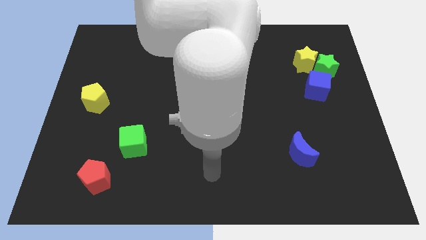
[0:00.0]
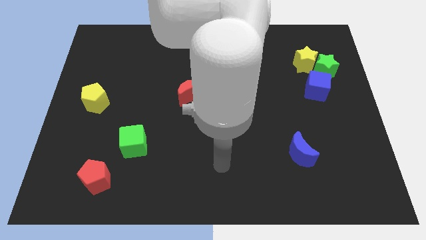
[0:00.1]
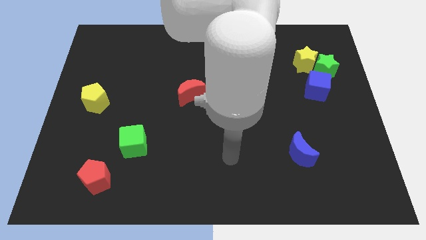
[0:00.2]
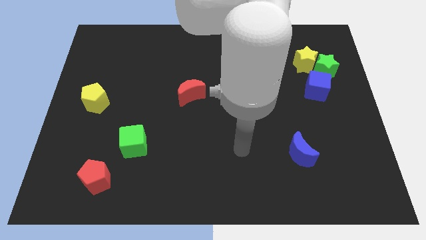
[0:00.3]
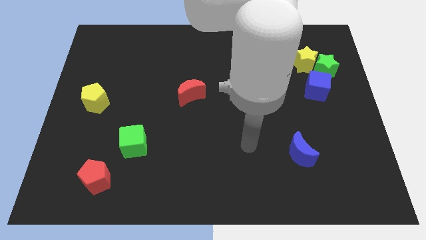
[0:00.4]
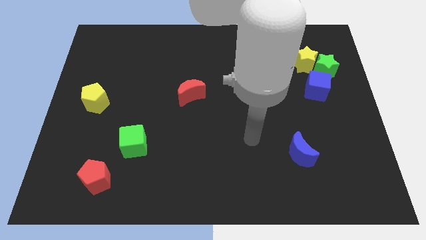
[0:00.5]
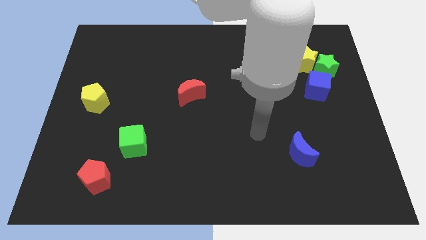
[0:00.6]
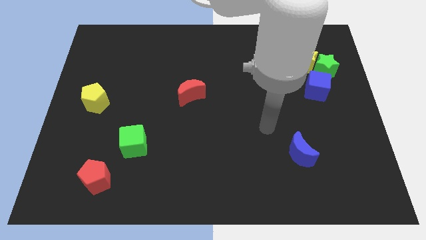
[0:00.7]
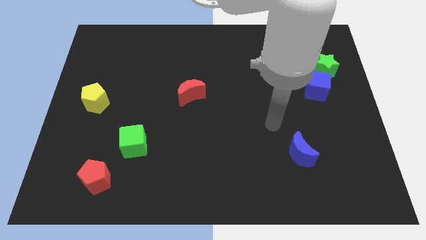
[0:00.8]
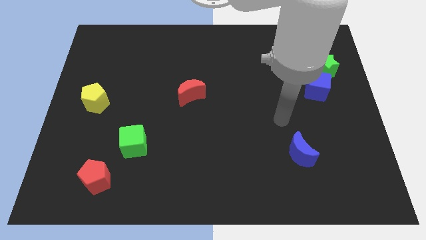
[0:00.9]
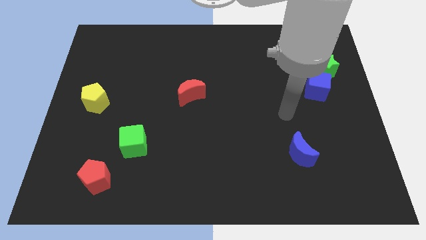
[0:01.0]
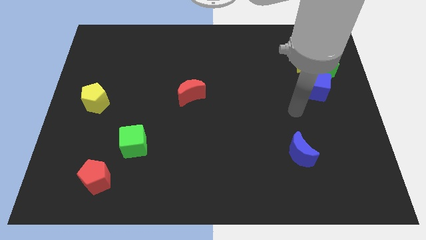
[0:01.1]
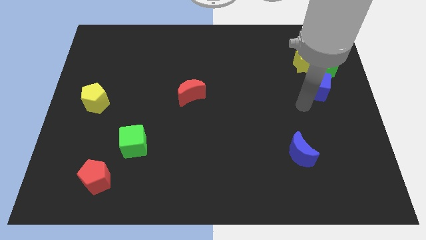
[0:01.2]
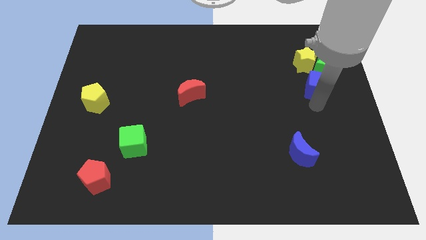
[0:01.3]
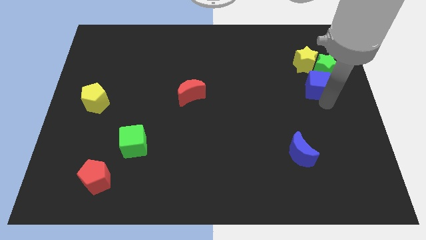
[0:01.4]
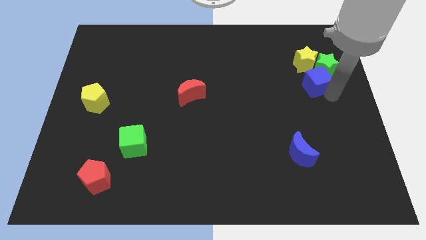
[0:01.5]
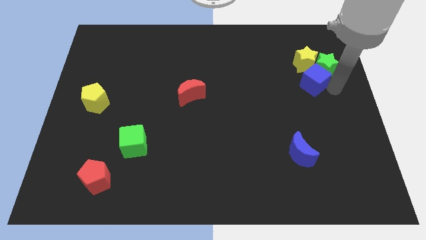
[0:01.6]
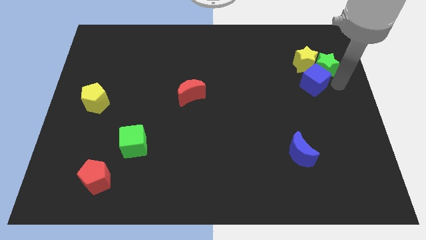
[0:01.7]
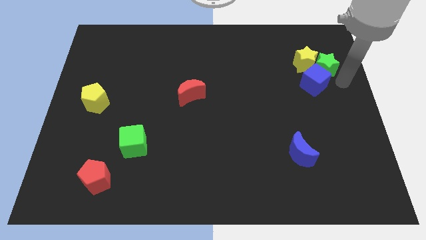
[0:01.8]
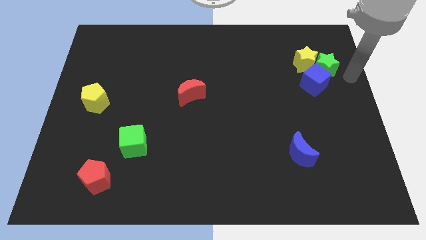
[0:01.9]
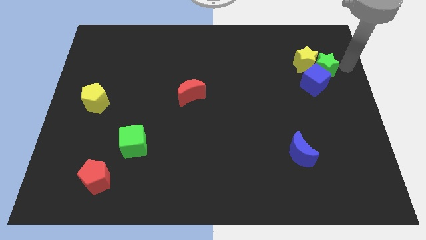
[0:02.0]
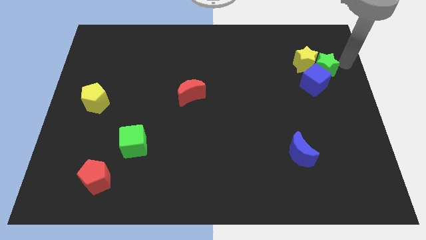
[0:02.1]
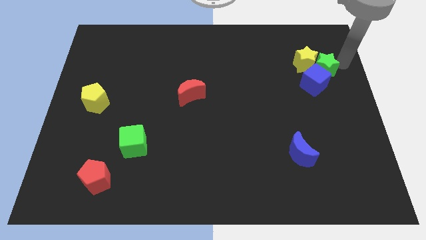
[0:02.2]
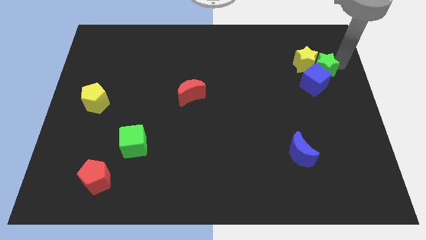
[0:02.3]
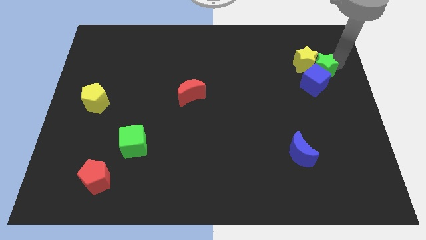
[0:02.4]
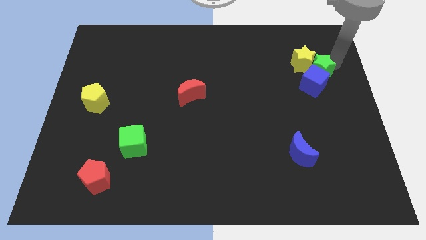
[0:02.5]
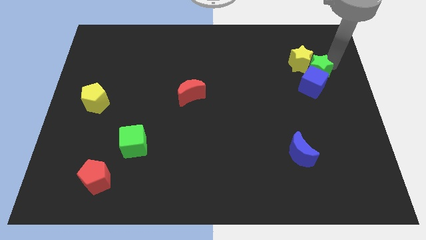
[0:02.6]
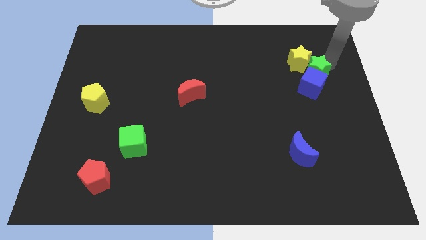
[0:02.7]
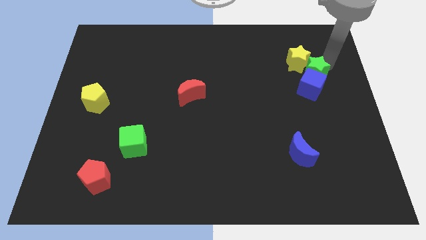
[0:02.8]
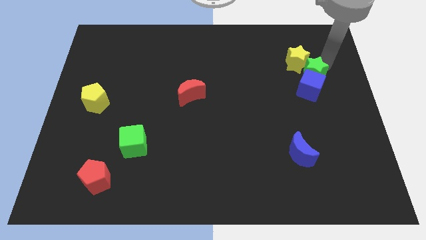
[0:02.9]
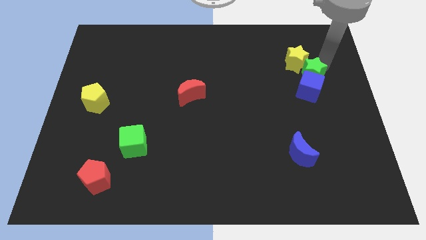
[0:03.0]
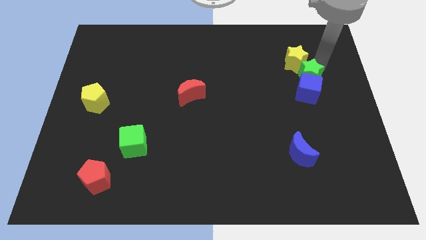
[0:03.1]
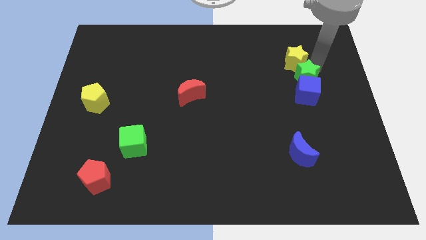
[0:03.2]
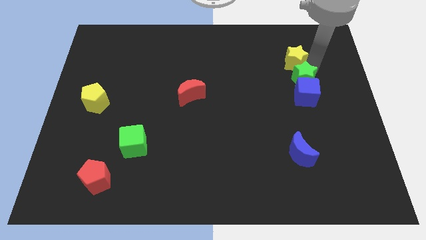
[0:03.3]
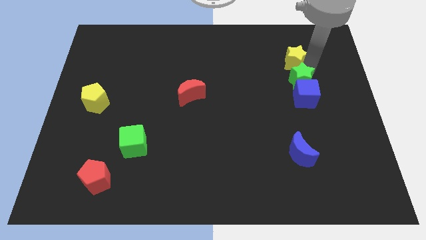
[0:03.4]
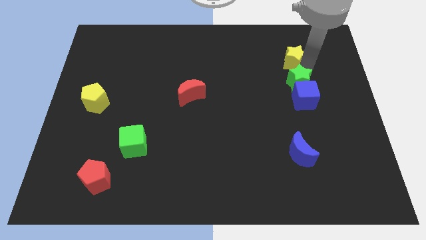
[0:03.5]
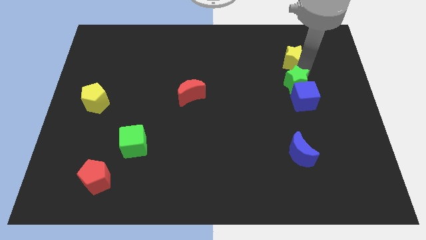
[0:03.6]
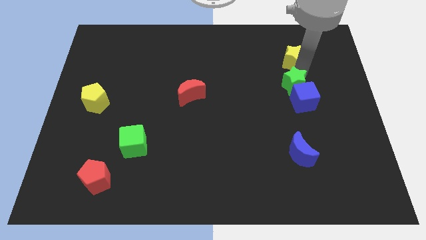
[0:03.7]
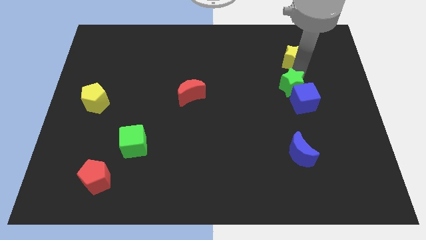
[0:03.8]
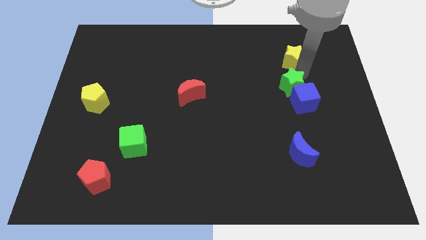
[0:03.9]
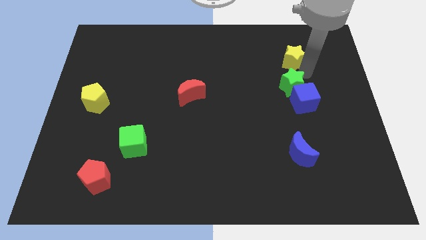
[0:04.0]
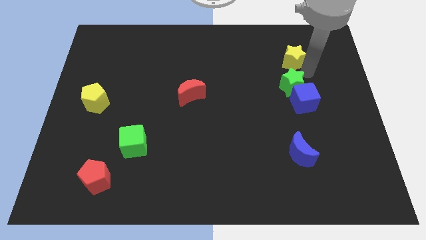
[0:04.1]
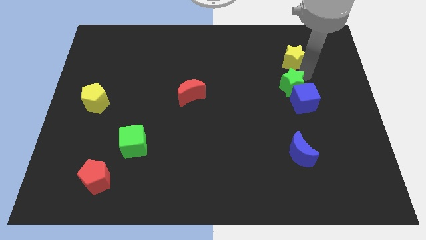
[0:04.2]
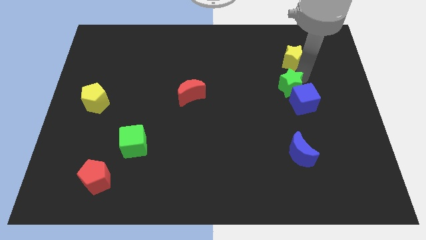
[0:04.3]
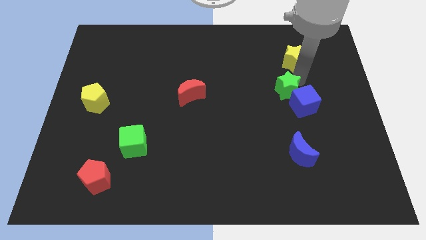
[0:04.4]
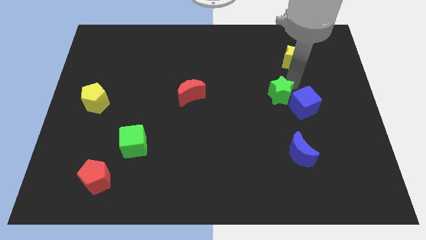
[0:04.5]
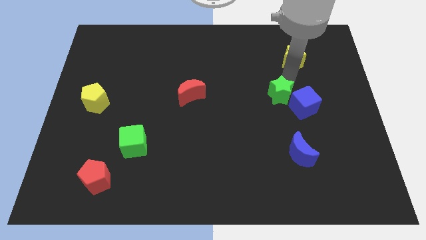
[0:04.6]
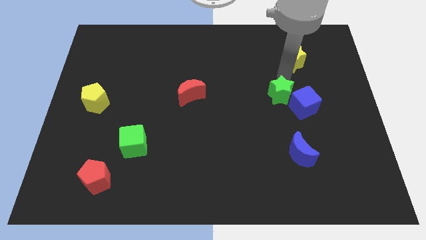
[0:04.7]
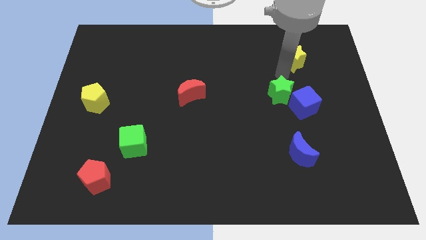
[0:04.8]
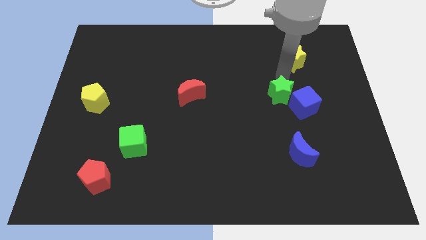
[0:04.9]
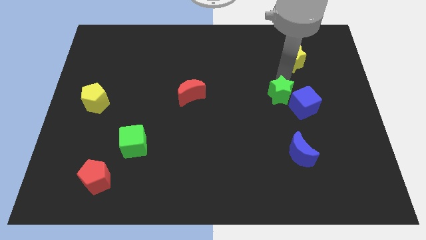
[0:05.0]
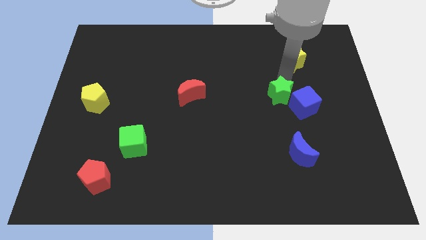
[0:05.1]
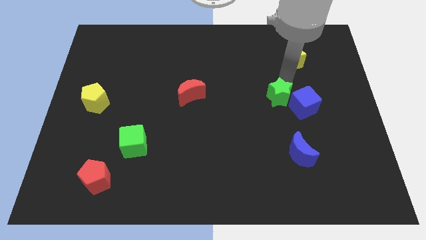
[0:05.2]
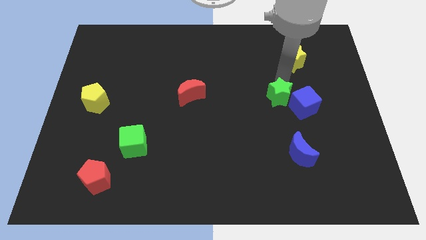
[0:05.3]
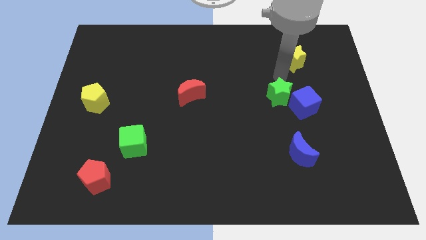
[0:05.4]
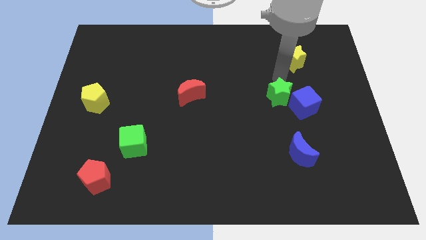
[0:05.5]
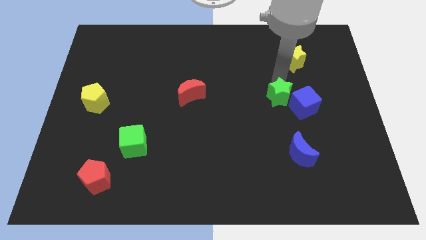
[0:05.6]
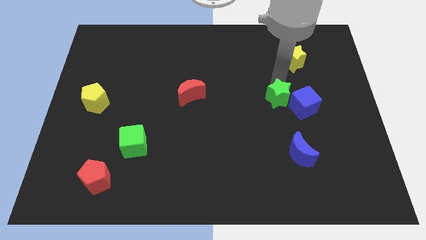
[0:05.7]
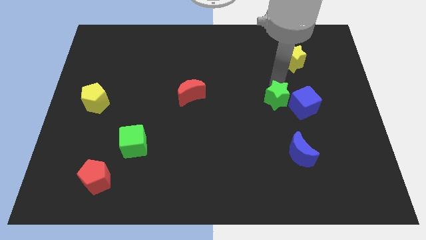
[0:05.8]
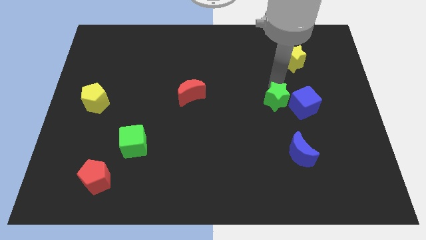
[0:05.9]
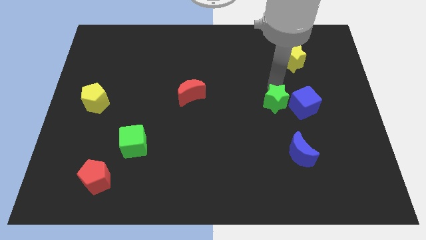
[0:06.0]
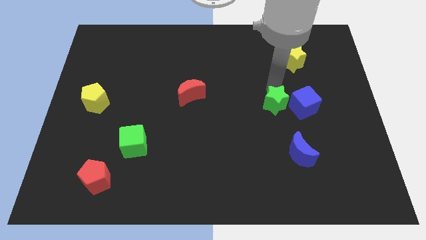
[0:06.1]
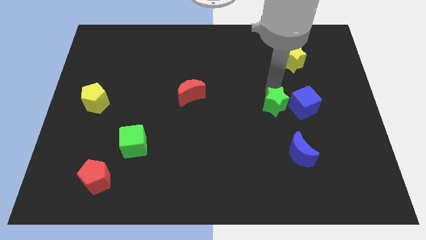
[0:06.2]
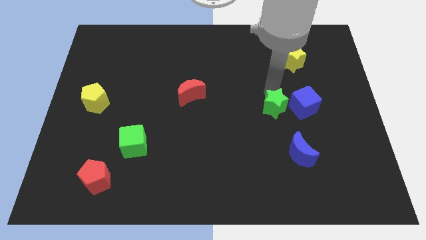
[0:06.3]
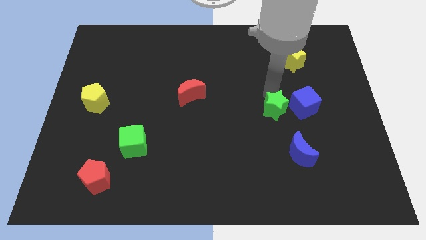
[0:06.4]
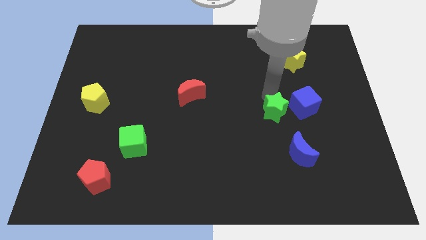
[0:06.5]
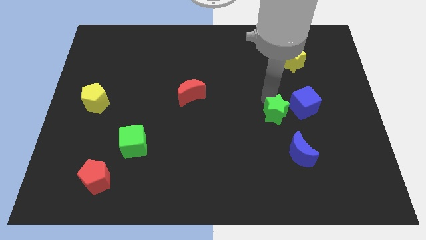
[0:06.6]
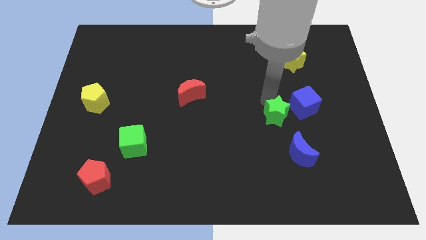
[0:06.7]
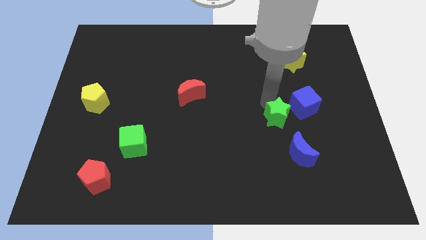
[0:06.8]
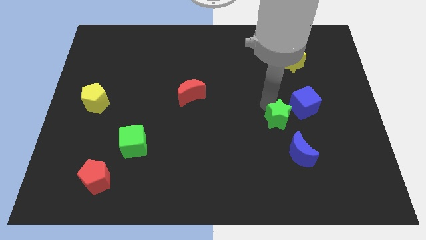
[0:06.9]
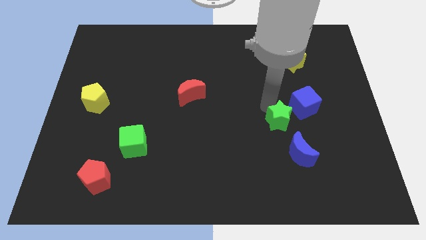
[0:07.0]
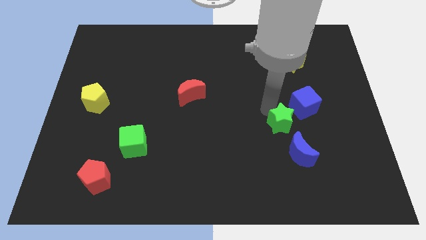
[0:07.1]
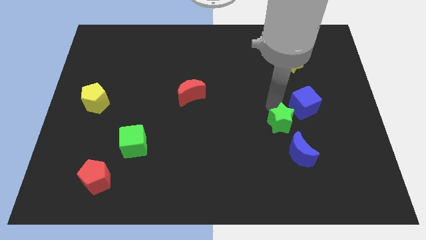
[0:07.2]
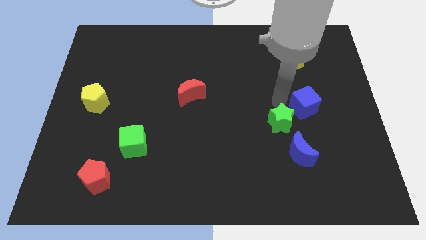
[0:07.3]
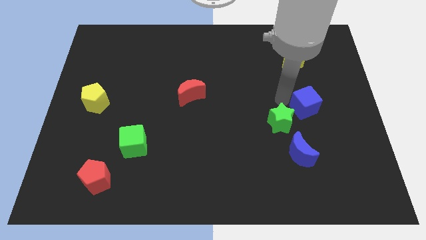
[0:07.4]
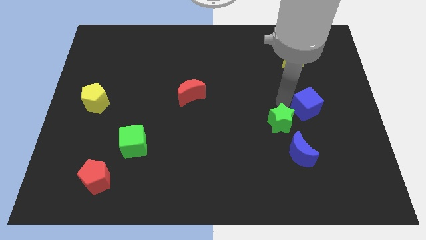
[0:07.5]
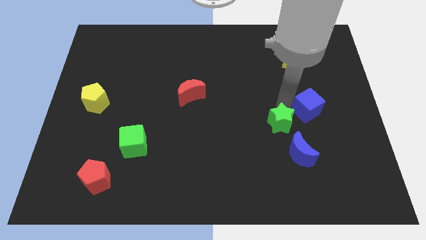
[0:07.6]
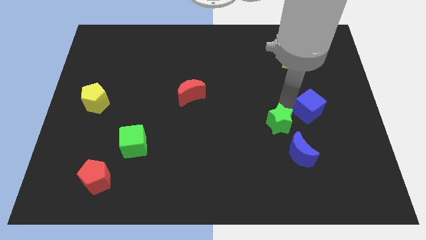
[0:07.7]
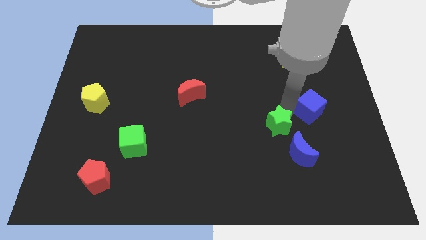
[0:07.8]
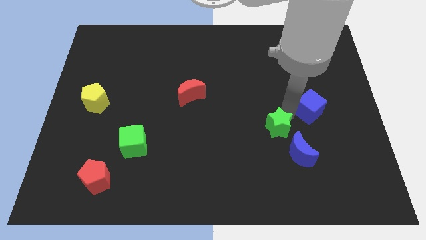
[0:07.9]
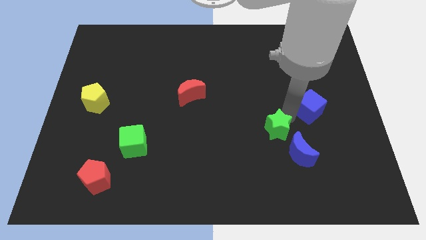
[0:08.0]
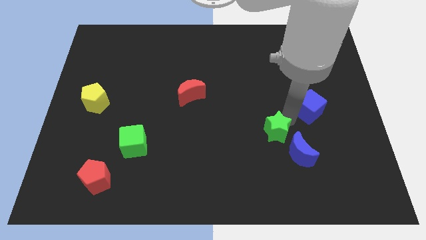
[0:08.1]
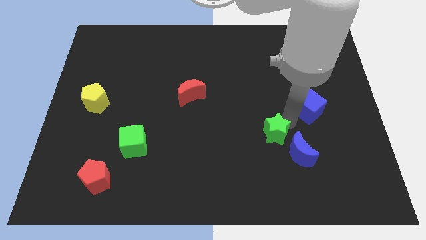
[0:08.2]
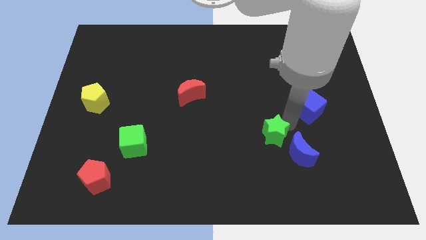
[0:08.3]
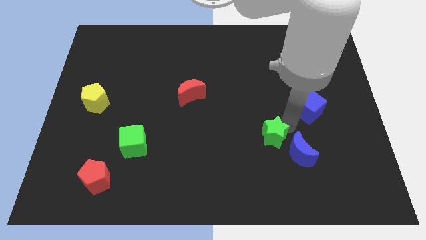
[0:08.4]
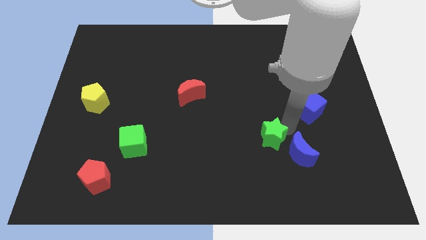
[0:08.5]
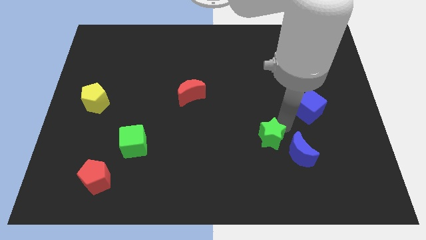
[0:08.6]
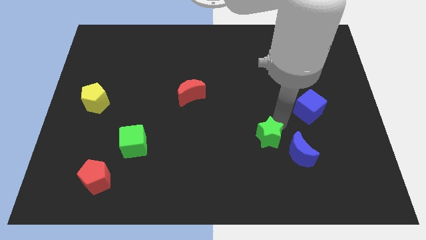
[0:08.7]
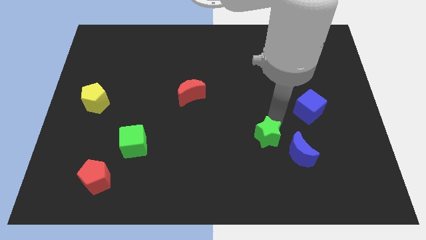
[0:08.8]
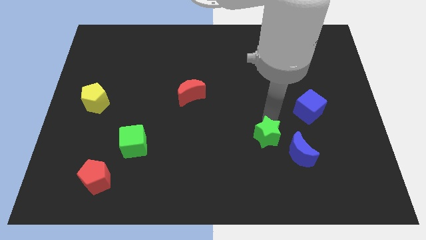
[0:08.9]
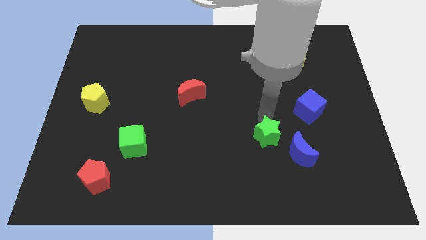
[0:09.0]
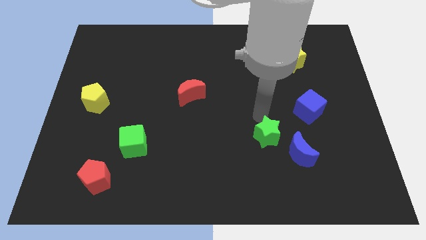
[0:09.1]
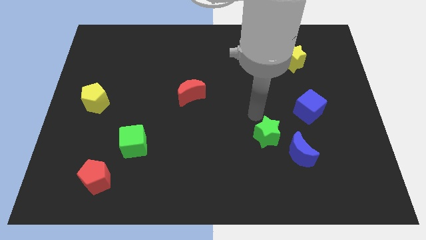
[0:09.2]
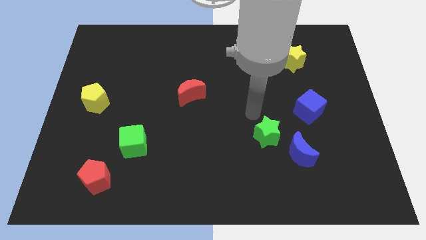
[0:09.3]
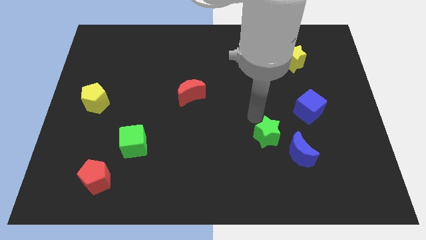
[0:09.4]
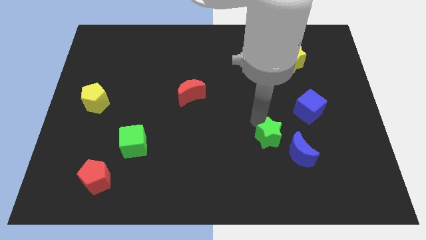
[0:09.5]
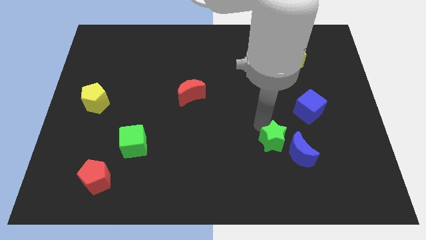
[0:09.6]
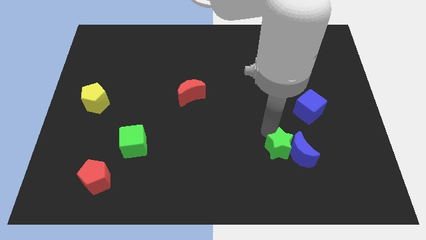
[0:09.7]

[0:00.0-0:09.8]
put the green star to the bottom left of the blue moon
